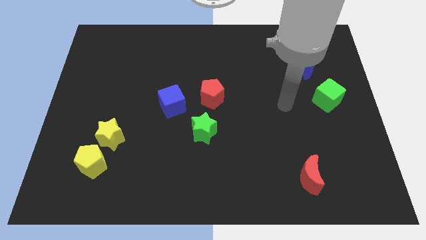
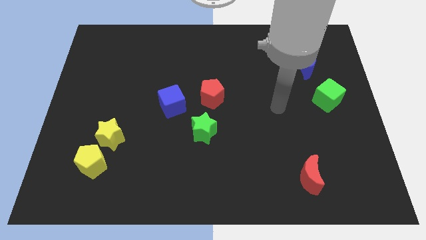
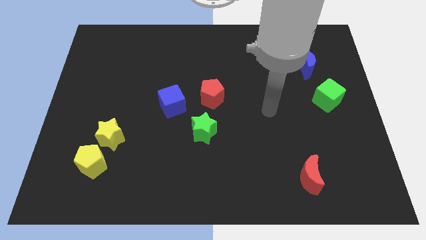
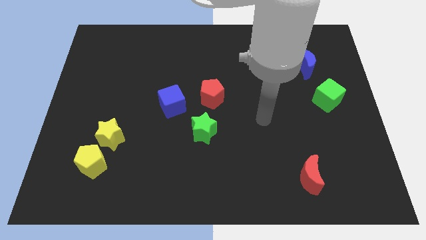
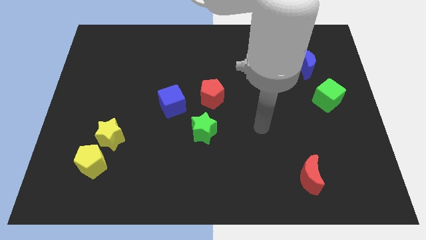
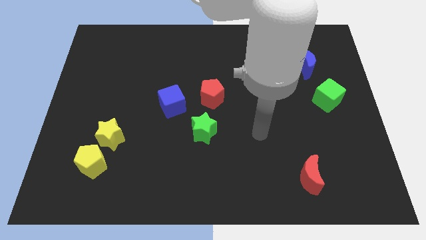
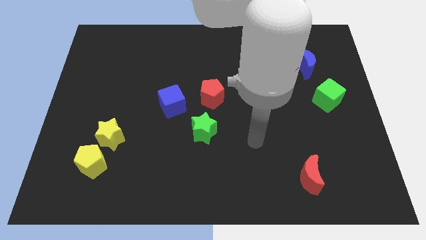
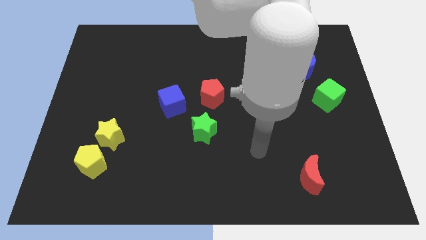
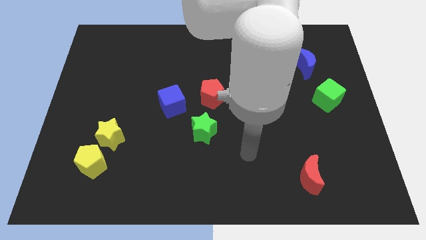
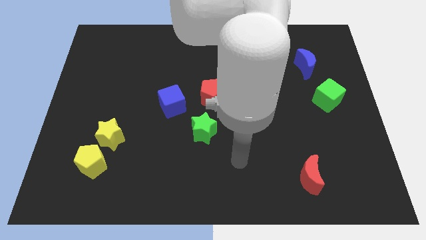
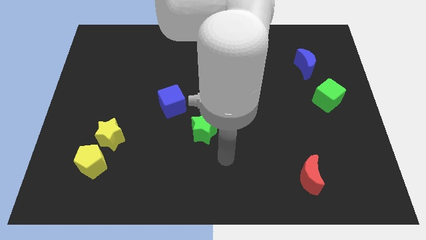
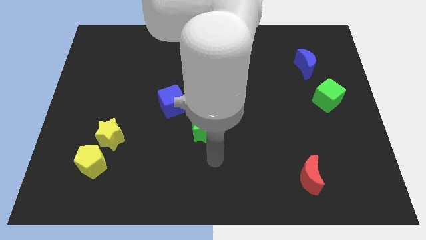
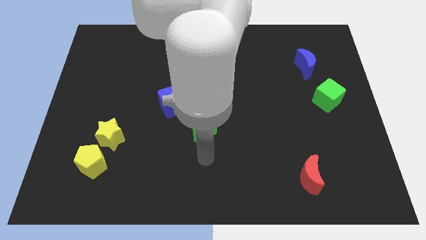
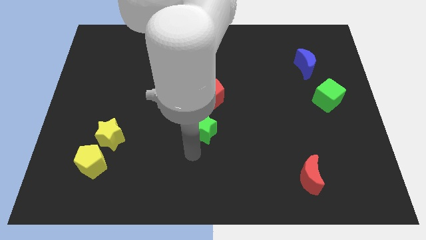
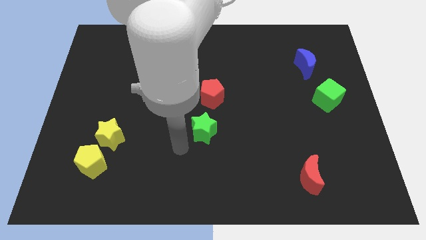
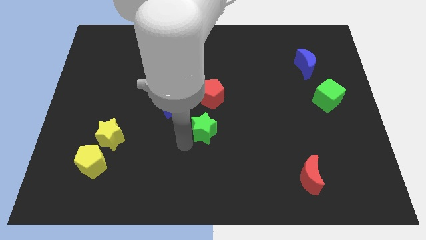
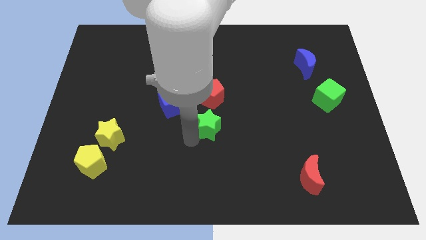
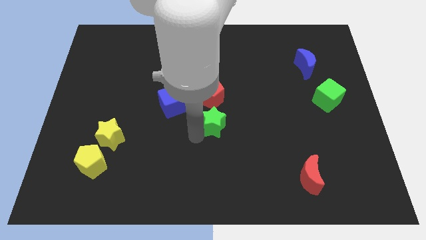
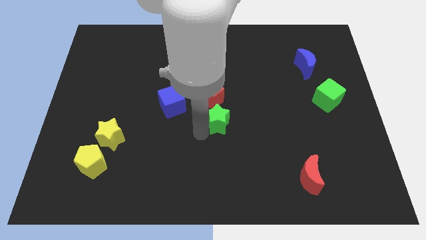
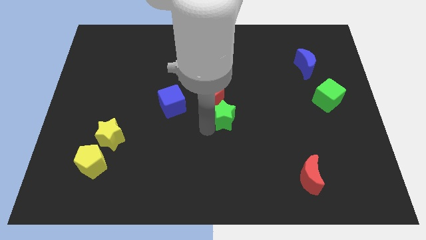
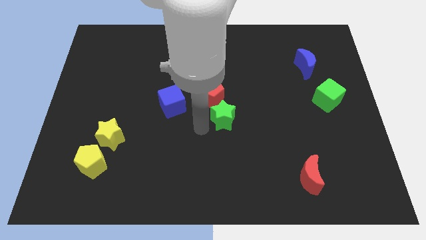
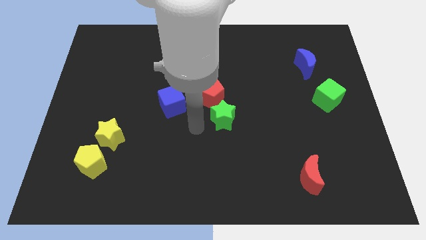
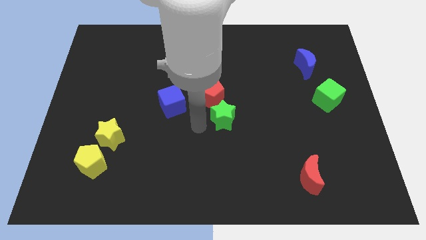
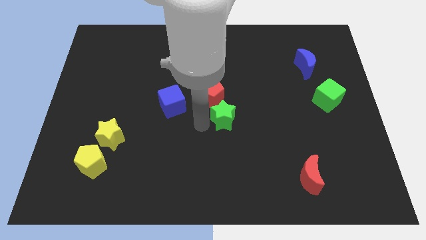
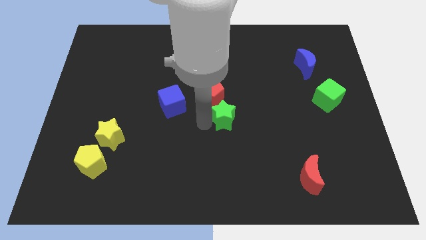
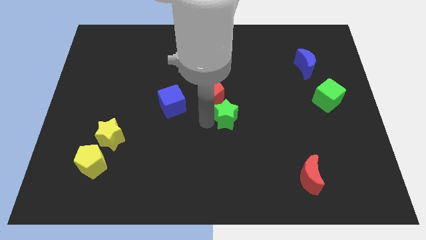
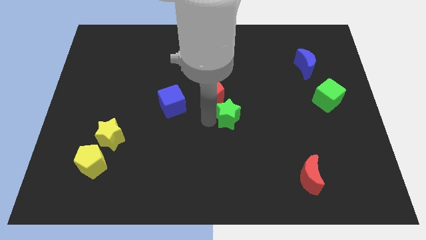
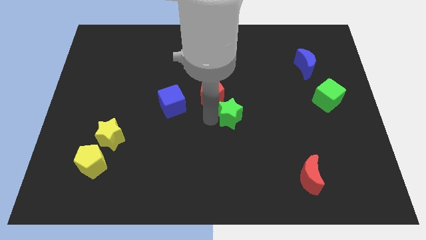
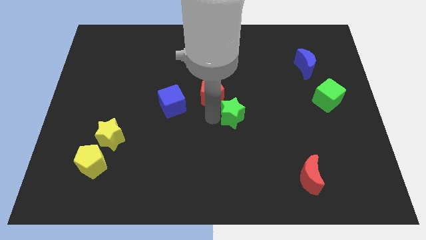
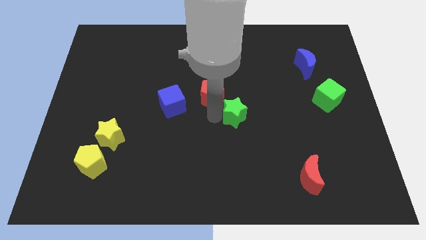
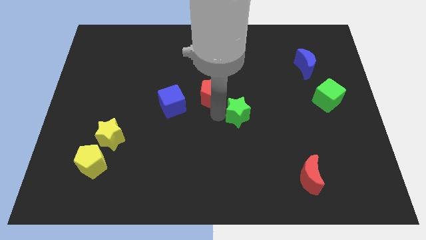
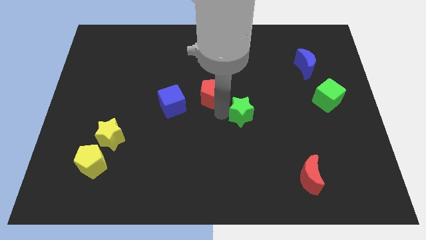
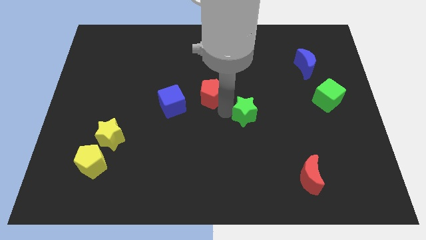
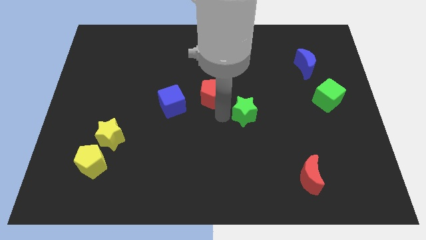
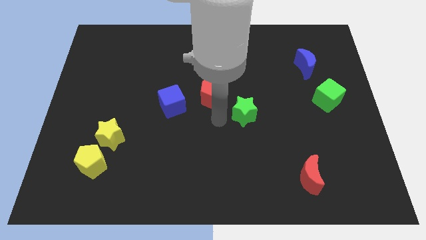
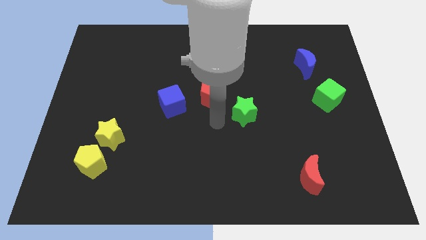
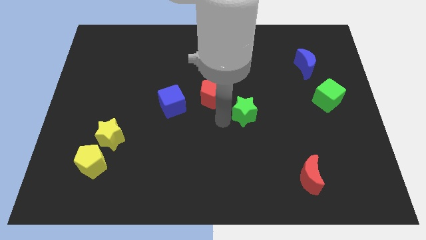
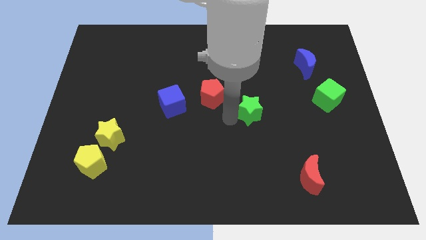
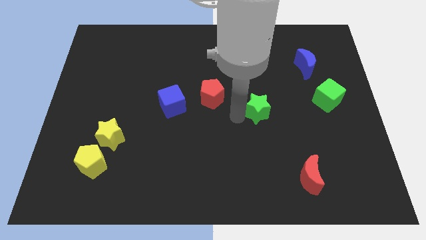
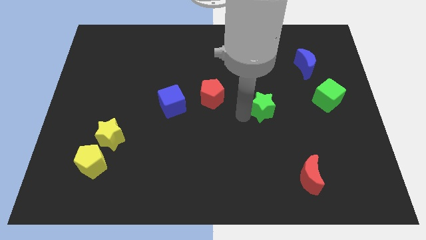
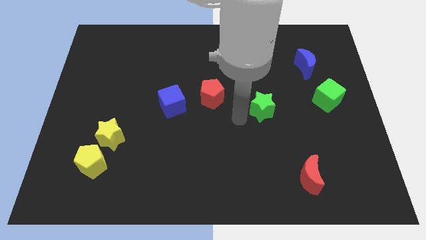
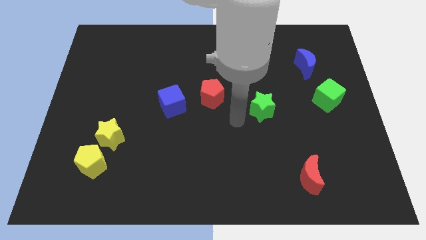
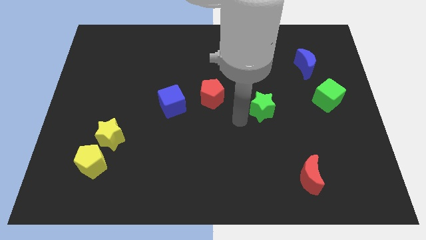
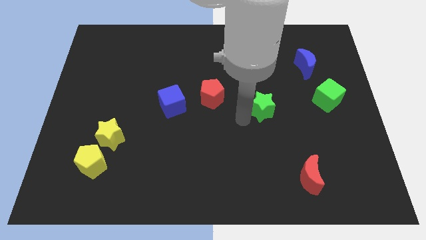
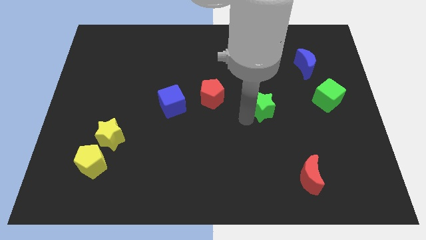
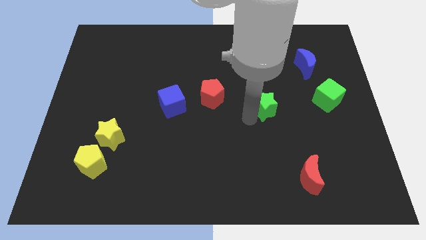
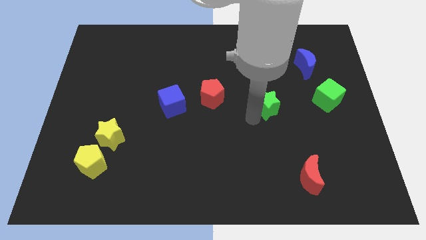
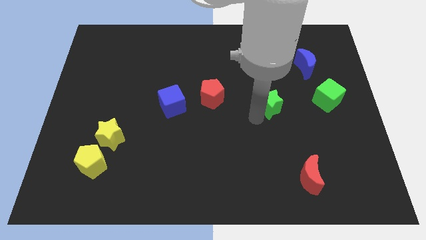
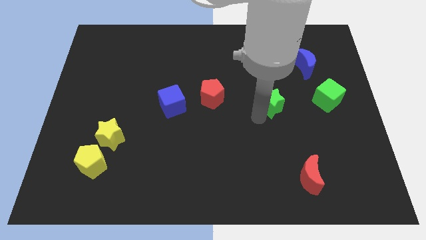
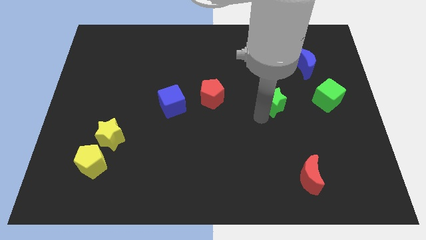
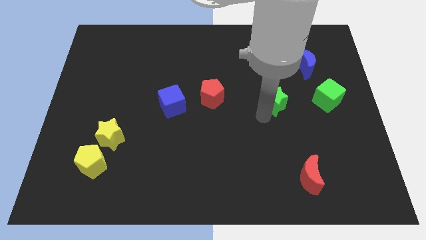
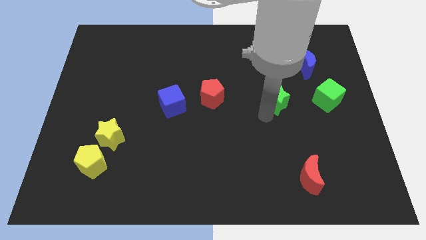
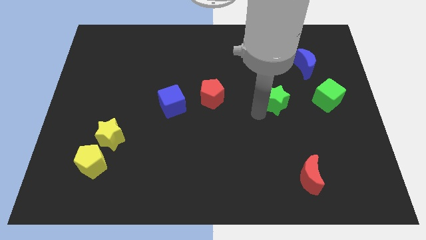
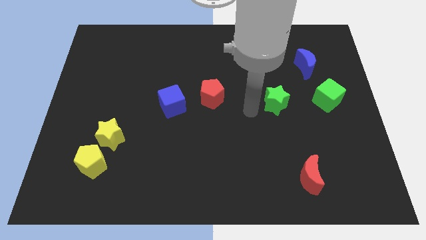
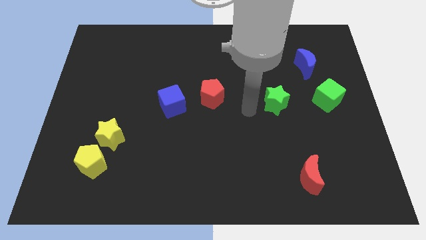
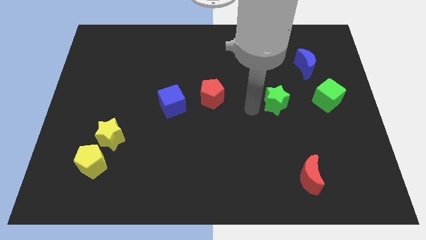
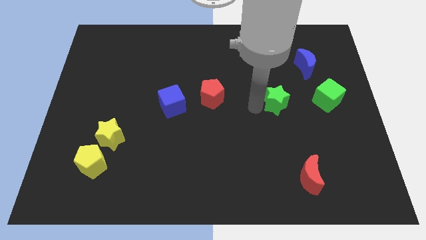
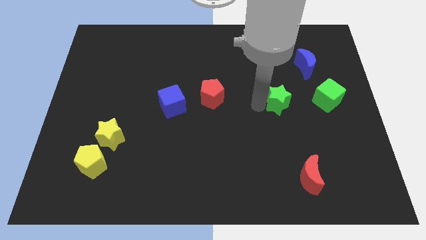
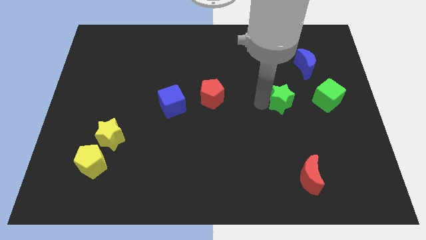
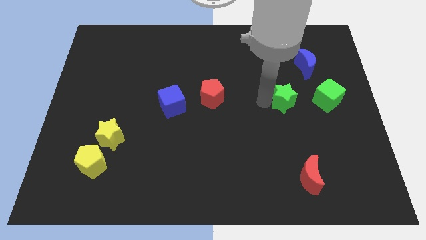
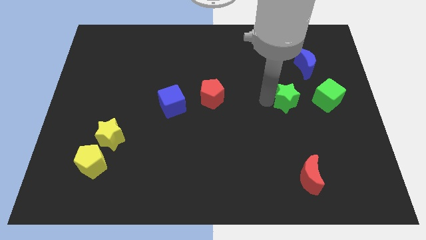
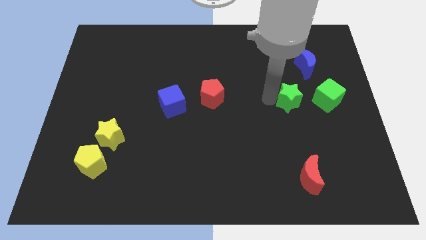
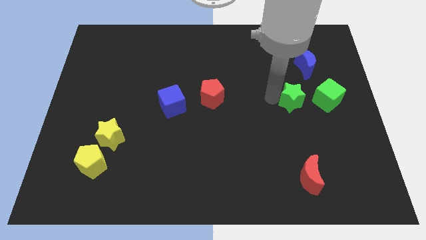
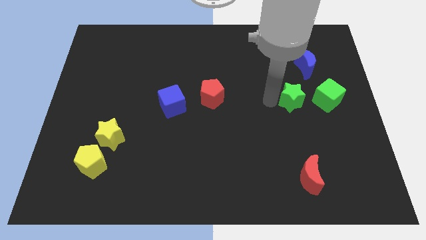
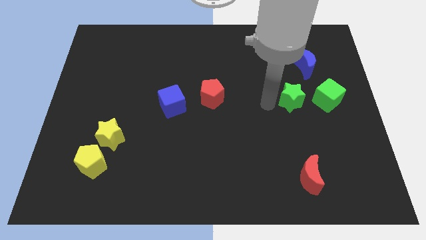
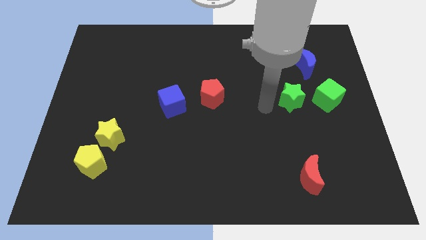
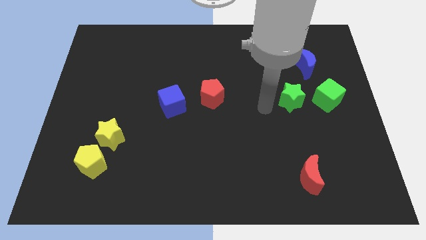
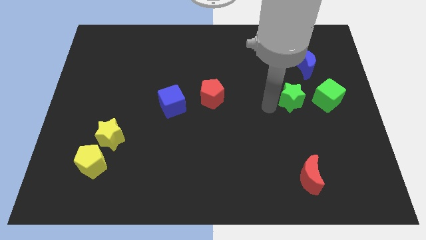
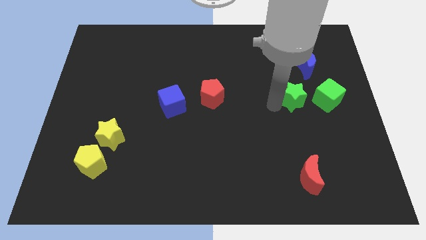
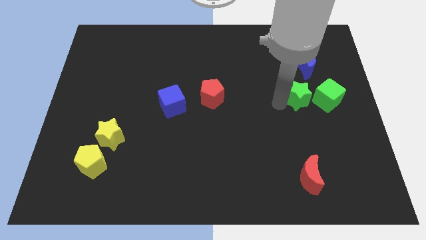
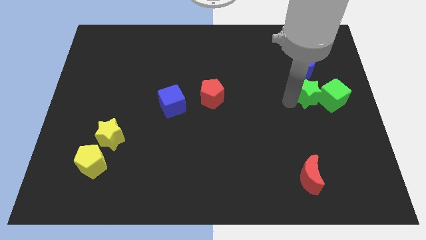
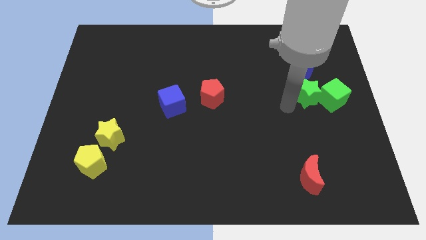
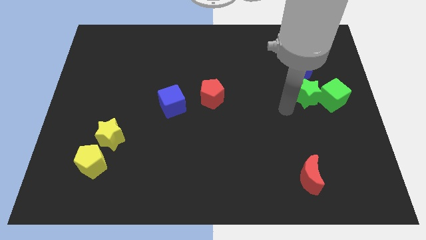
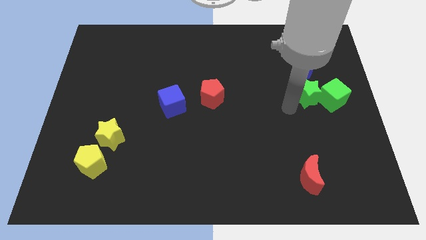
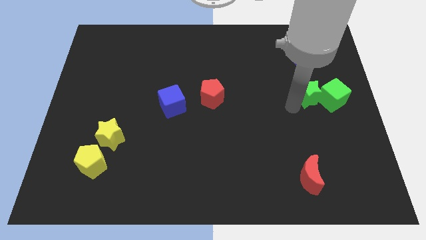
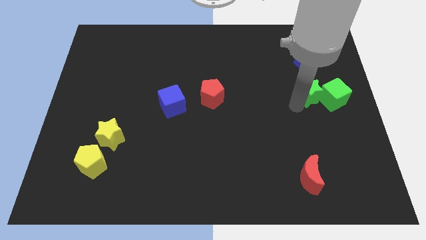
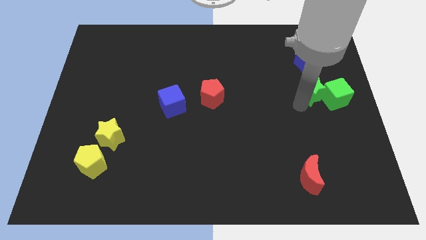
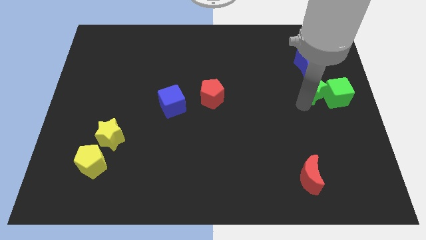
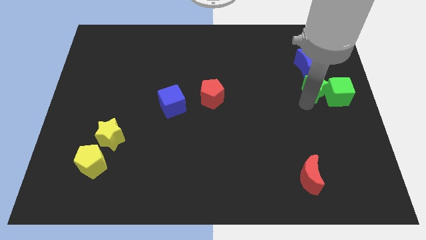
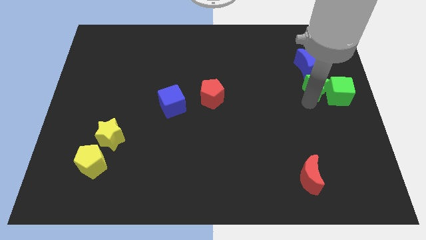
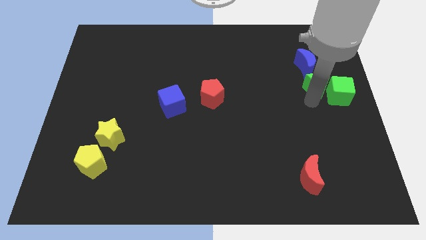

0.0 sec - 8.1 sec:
move the green star diagonally down and to the right of the blue moon
